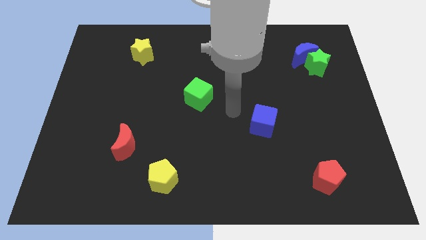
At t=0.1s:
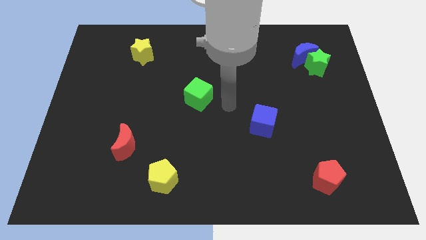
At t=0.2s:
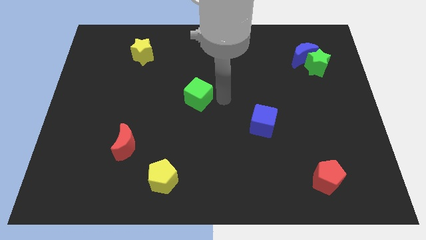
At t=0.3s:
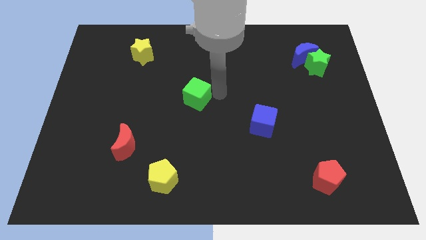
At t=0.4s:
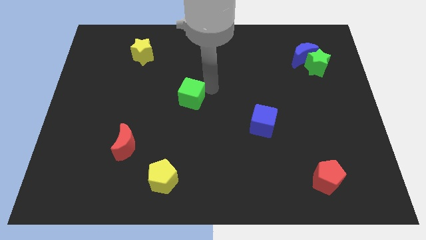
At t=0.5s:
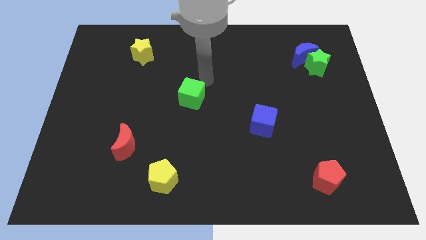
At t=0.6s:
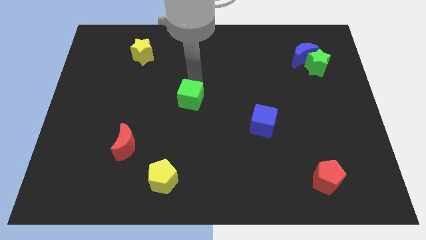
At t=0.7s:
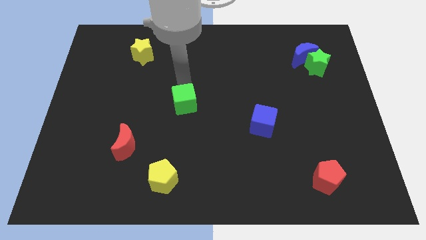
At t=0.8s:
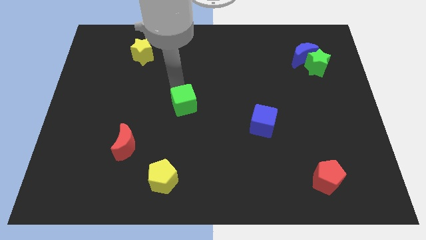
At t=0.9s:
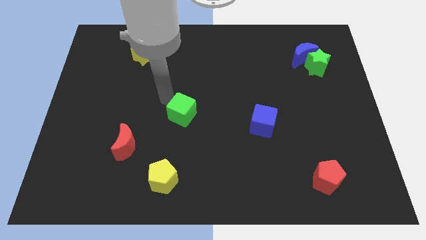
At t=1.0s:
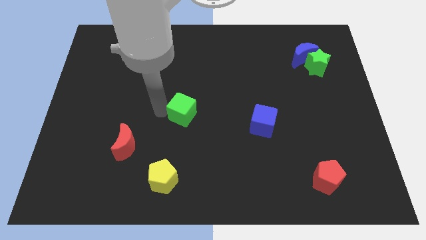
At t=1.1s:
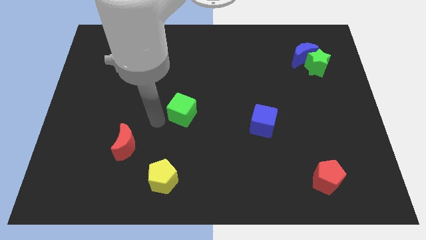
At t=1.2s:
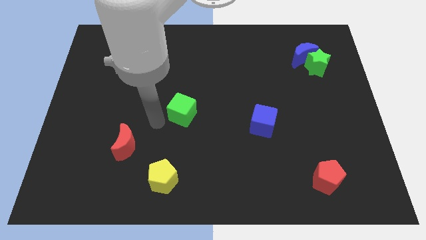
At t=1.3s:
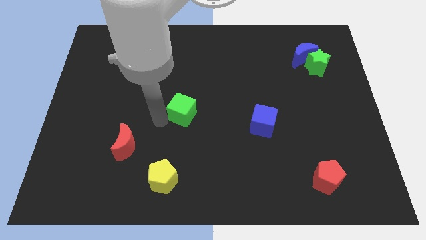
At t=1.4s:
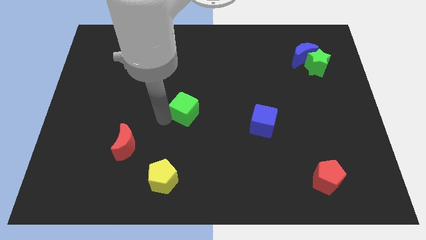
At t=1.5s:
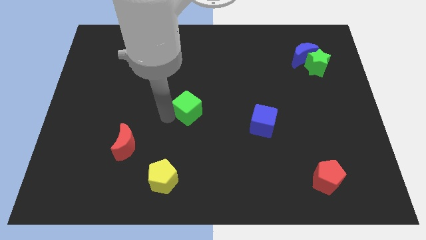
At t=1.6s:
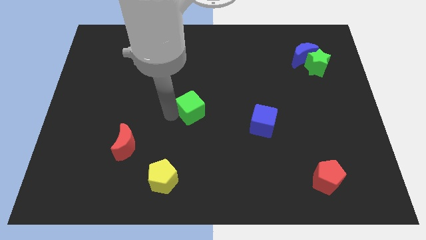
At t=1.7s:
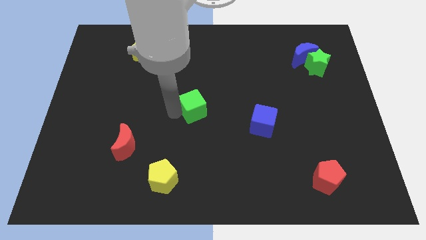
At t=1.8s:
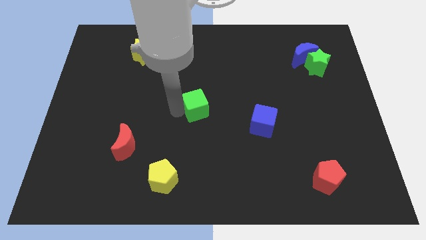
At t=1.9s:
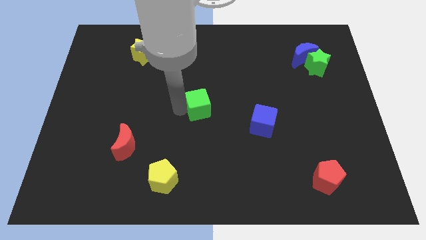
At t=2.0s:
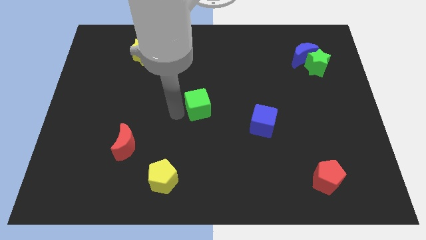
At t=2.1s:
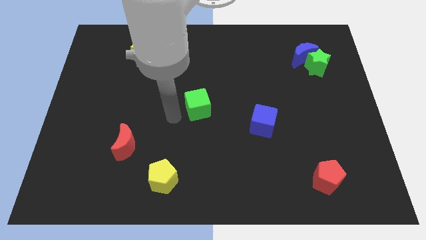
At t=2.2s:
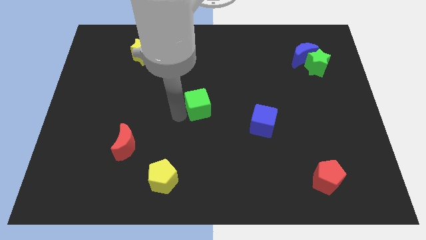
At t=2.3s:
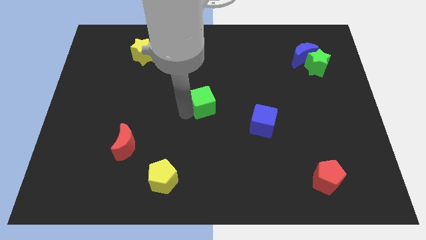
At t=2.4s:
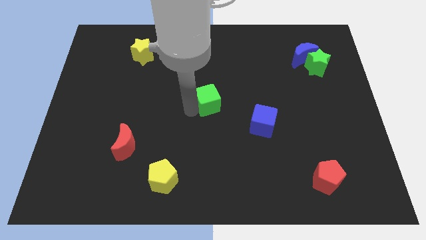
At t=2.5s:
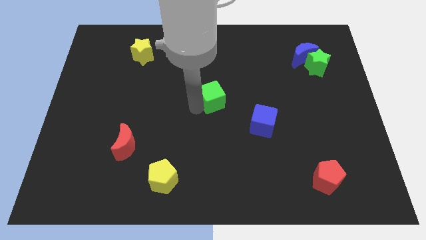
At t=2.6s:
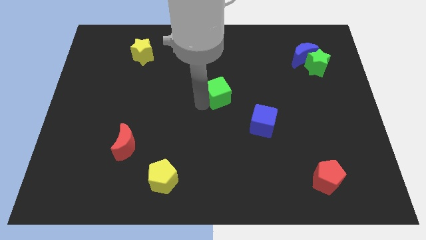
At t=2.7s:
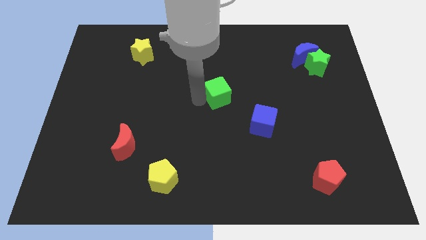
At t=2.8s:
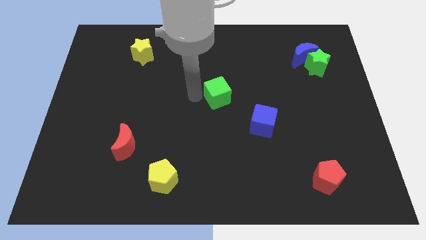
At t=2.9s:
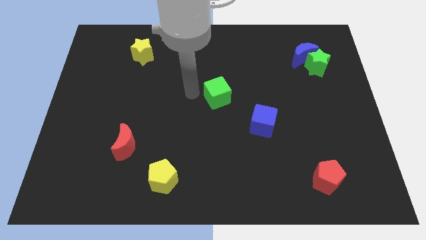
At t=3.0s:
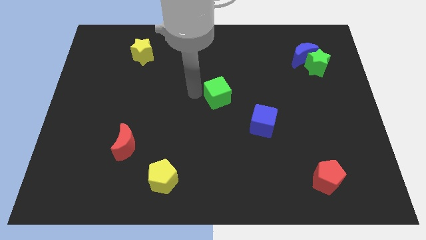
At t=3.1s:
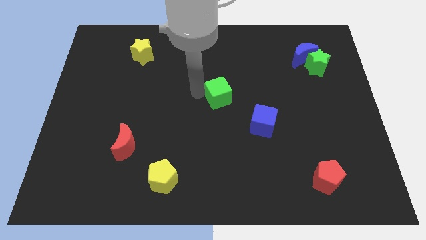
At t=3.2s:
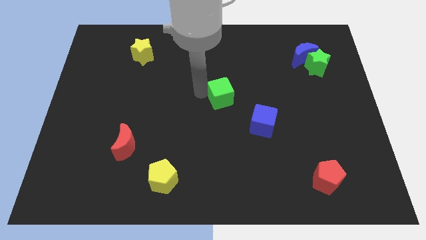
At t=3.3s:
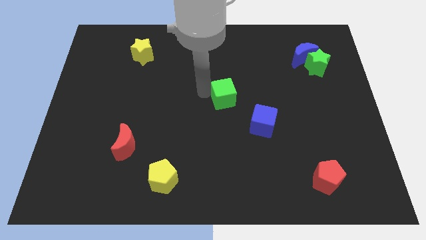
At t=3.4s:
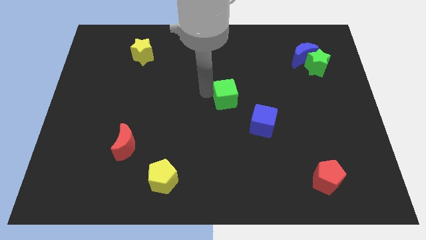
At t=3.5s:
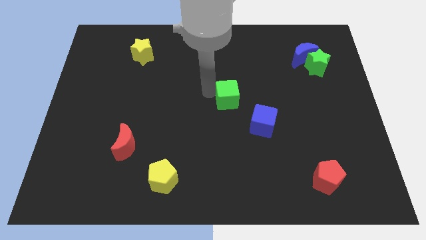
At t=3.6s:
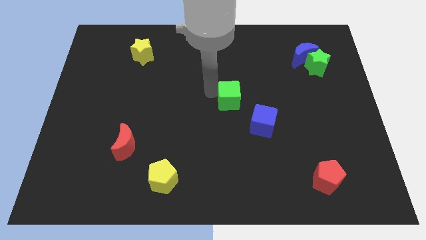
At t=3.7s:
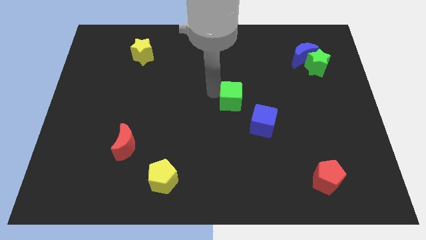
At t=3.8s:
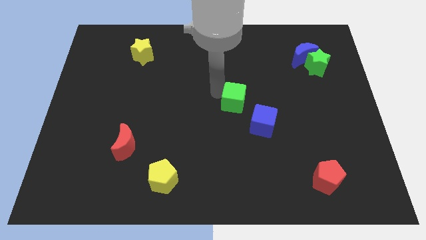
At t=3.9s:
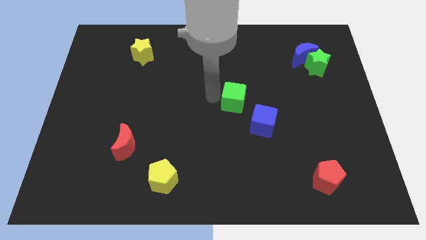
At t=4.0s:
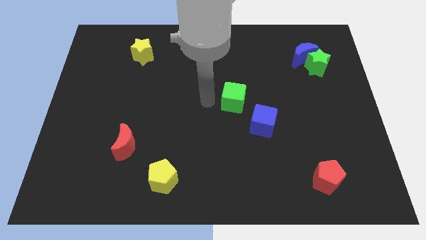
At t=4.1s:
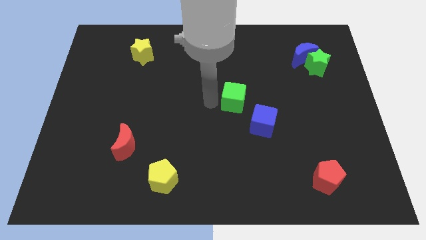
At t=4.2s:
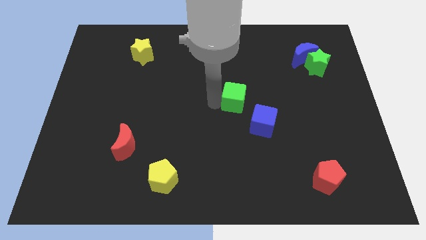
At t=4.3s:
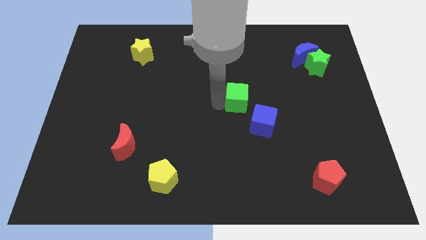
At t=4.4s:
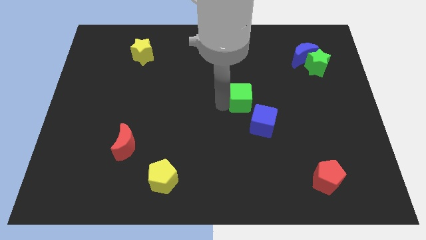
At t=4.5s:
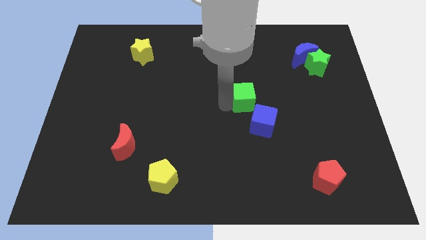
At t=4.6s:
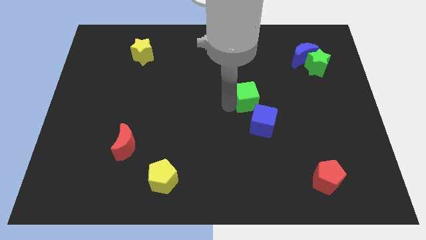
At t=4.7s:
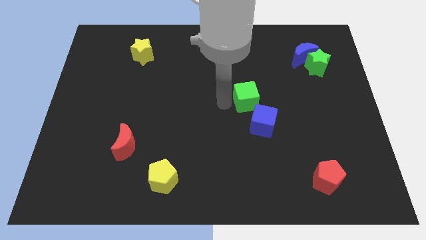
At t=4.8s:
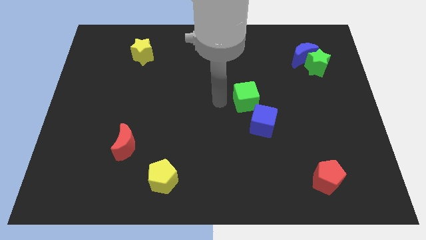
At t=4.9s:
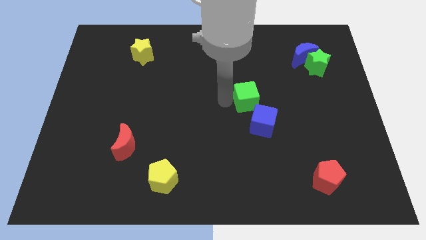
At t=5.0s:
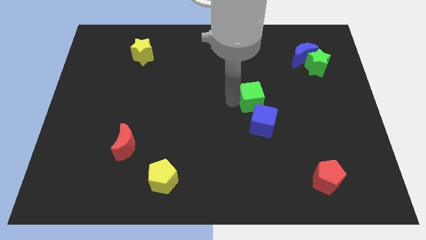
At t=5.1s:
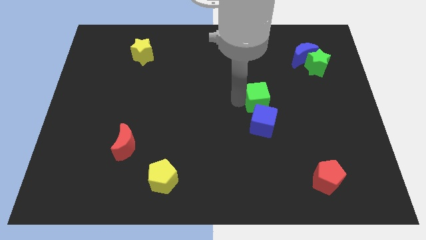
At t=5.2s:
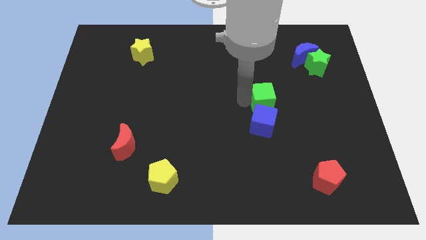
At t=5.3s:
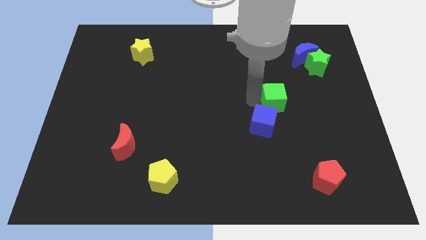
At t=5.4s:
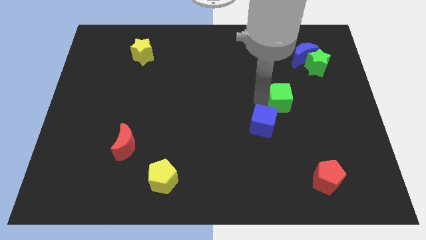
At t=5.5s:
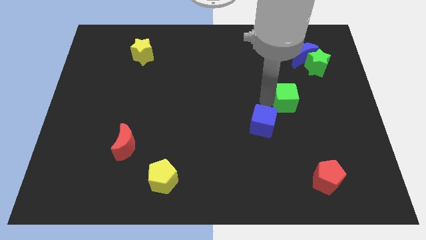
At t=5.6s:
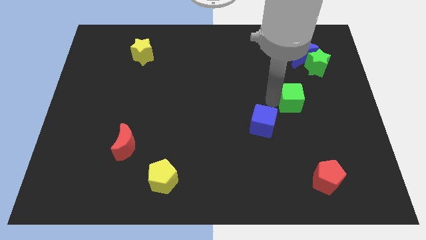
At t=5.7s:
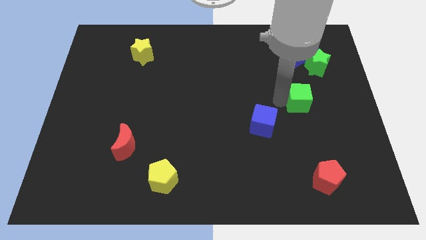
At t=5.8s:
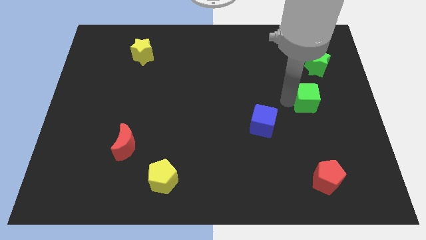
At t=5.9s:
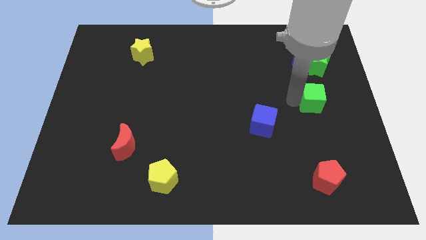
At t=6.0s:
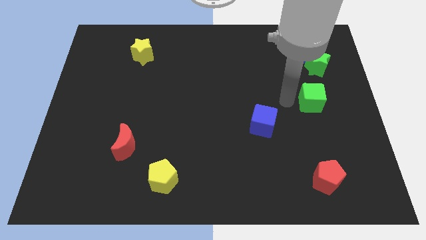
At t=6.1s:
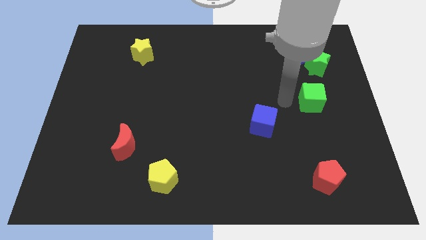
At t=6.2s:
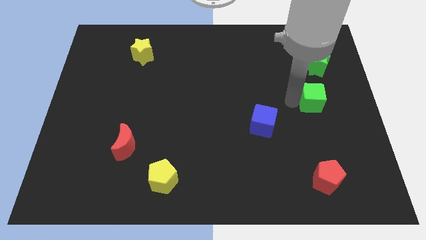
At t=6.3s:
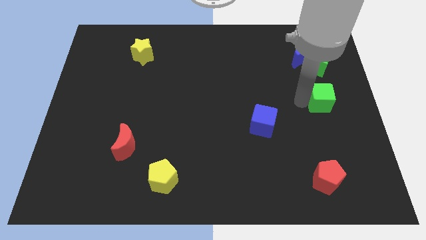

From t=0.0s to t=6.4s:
put the green cube to the right side

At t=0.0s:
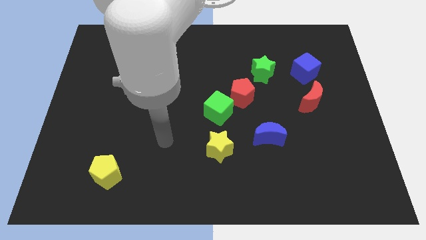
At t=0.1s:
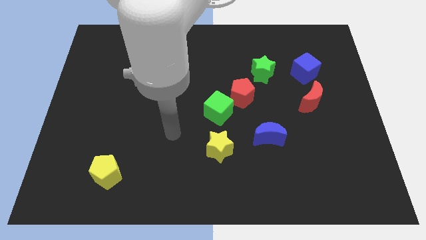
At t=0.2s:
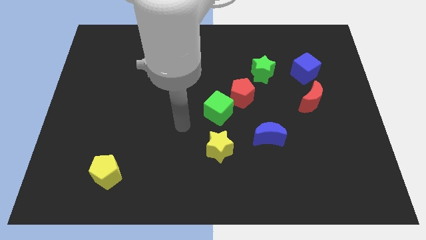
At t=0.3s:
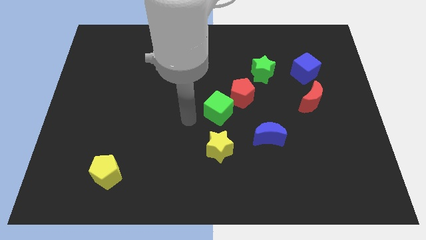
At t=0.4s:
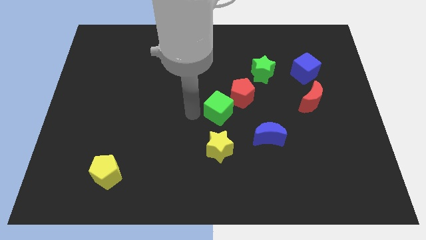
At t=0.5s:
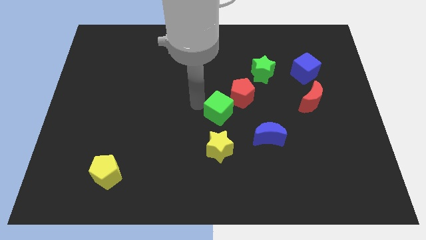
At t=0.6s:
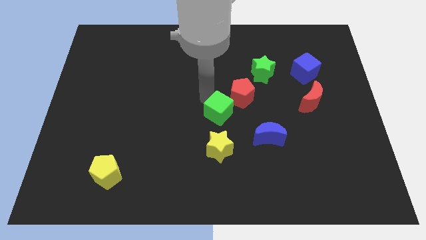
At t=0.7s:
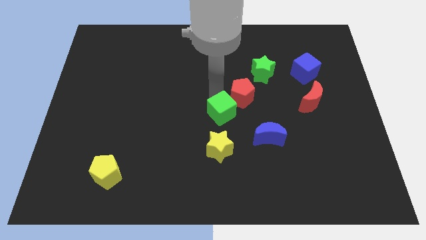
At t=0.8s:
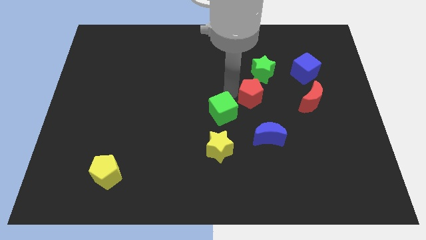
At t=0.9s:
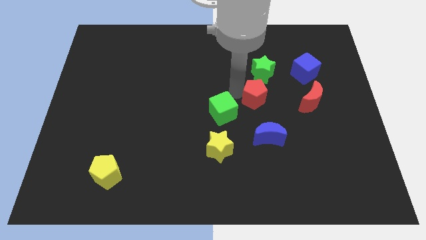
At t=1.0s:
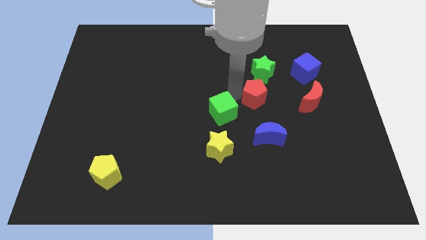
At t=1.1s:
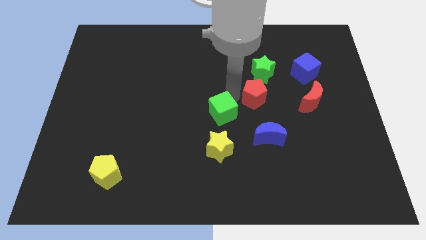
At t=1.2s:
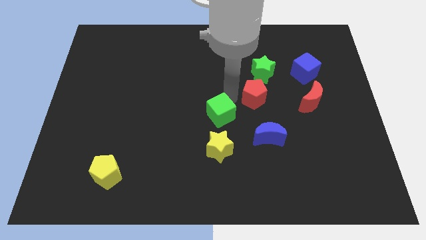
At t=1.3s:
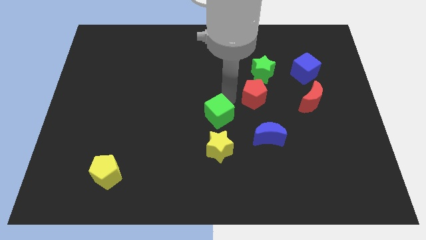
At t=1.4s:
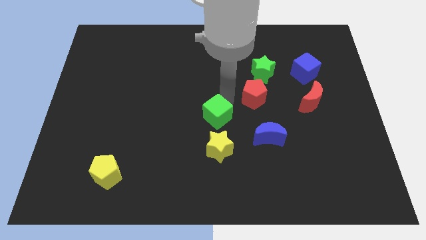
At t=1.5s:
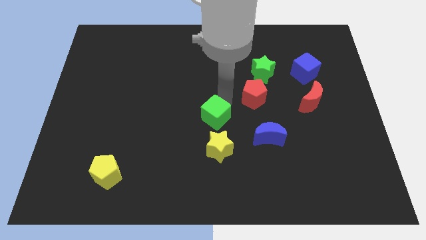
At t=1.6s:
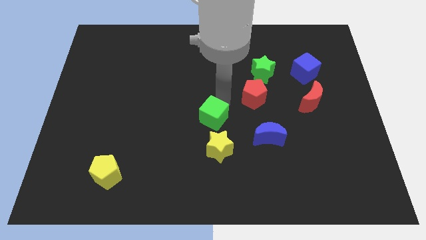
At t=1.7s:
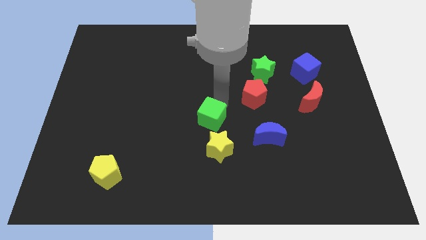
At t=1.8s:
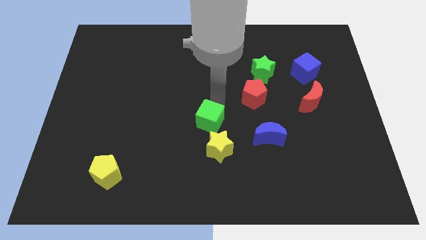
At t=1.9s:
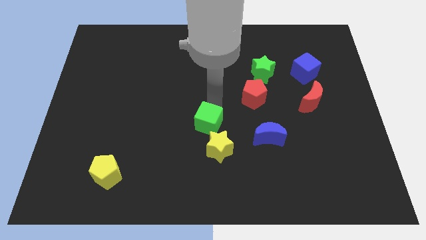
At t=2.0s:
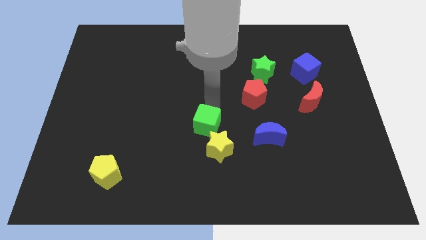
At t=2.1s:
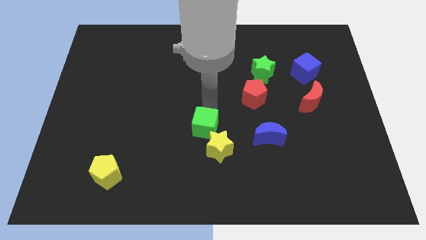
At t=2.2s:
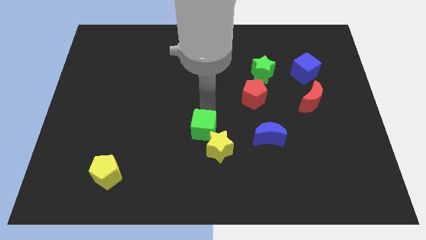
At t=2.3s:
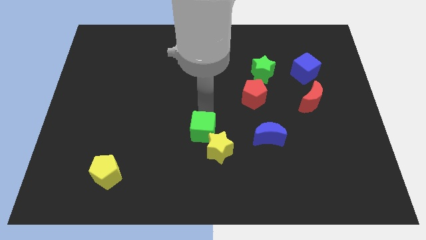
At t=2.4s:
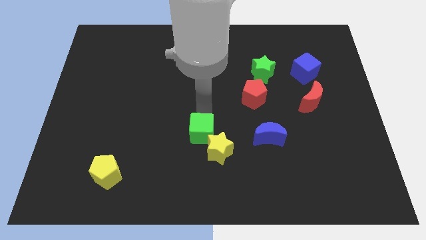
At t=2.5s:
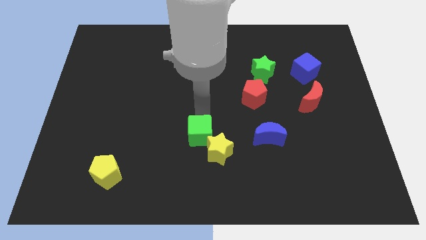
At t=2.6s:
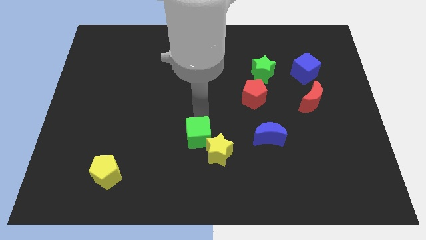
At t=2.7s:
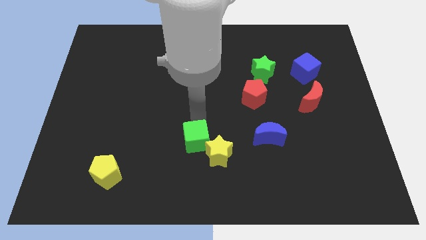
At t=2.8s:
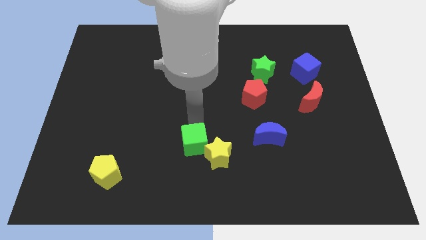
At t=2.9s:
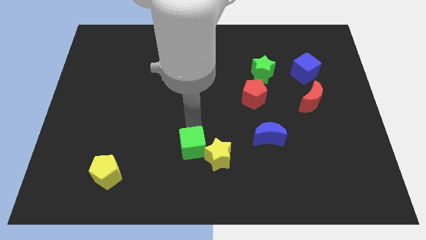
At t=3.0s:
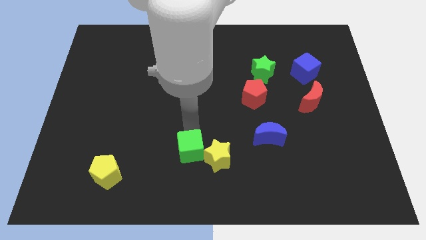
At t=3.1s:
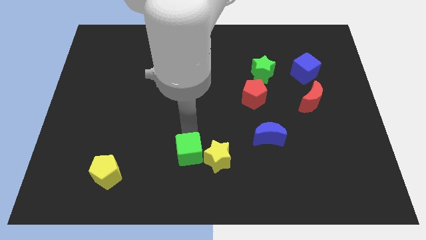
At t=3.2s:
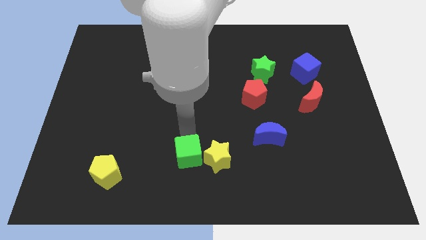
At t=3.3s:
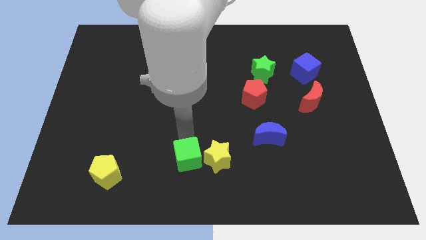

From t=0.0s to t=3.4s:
slide the green cube to the bottom
